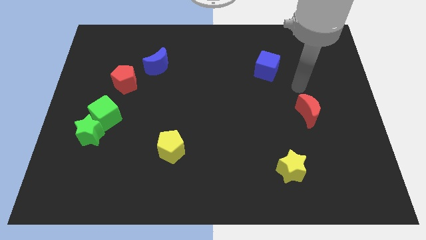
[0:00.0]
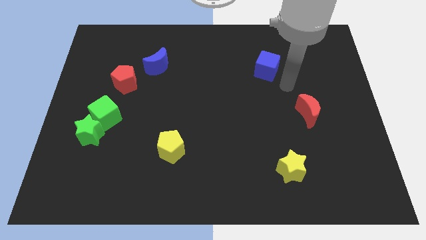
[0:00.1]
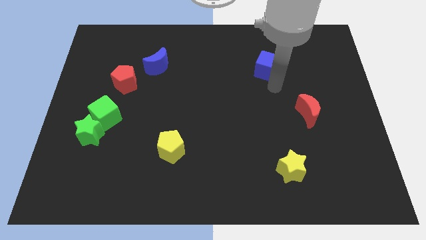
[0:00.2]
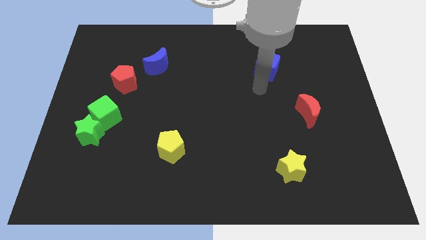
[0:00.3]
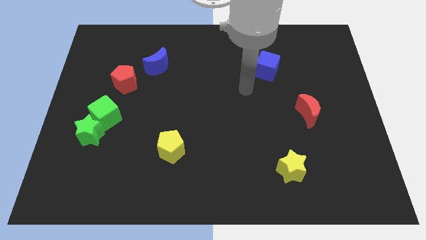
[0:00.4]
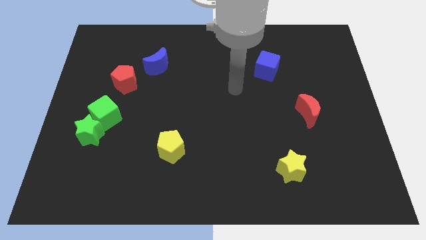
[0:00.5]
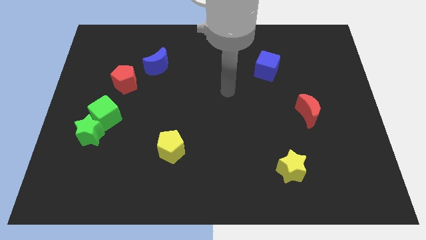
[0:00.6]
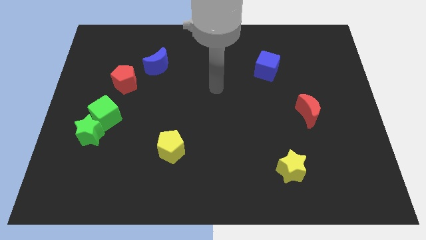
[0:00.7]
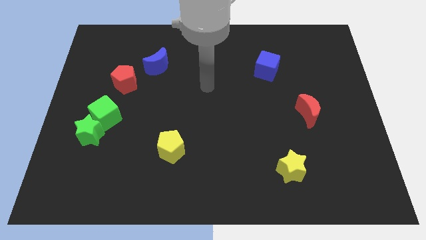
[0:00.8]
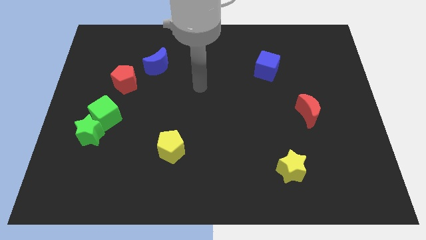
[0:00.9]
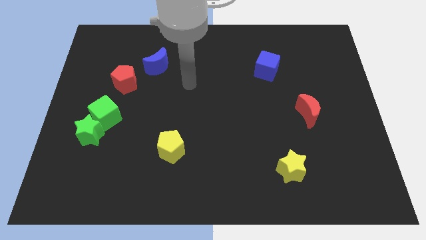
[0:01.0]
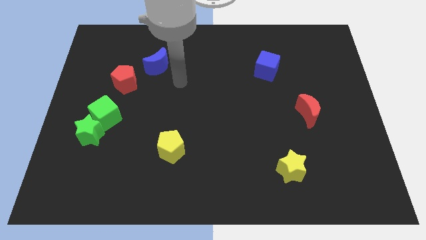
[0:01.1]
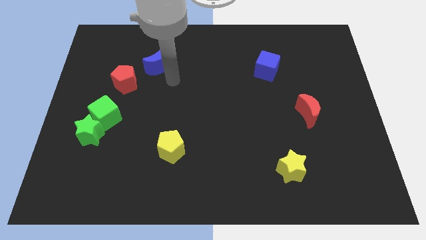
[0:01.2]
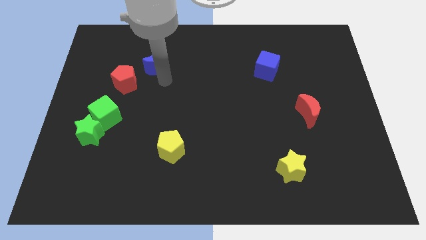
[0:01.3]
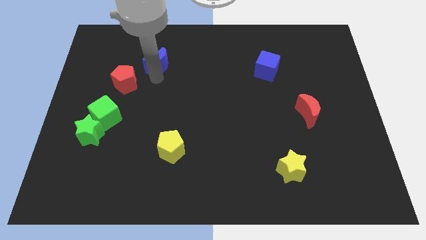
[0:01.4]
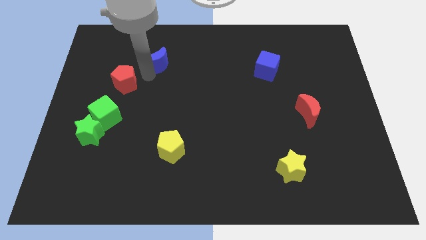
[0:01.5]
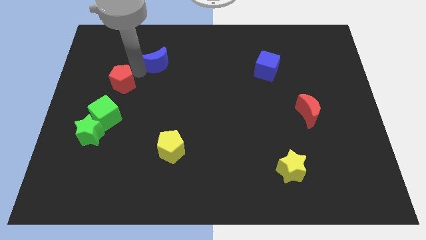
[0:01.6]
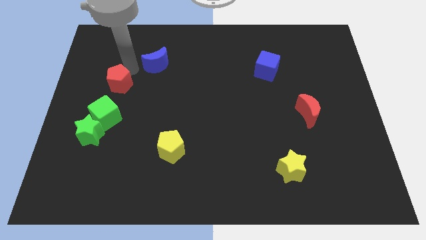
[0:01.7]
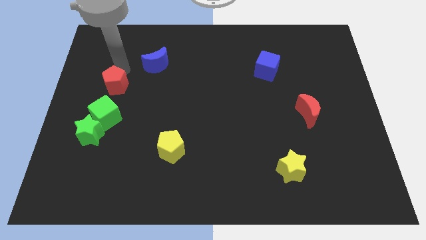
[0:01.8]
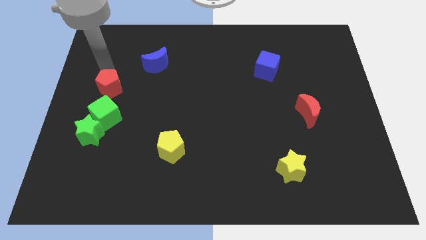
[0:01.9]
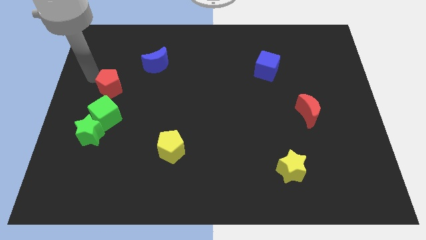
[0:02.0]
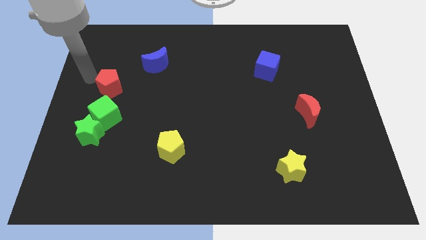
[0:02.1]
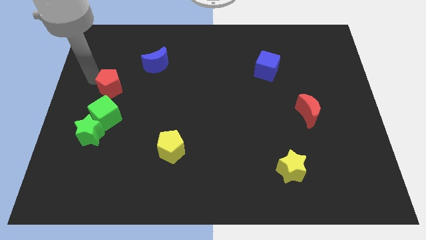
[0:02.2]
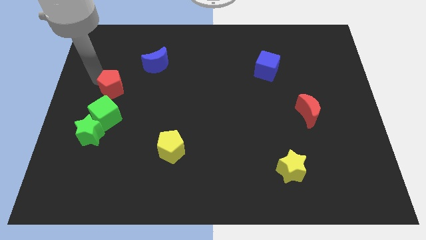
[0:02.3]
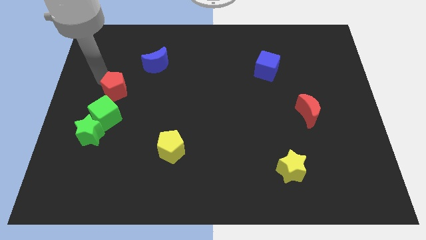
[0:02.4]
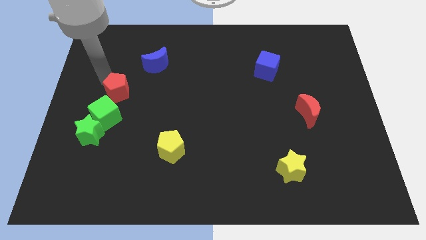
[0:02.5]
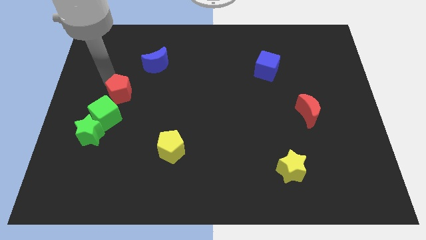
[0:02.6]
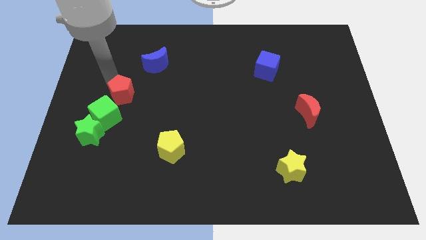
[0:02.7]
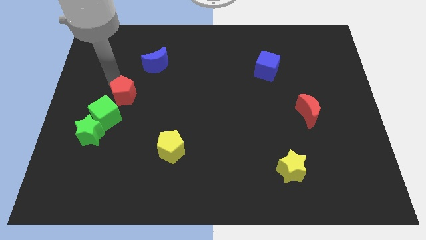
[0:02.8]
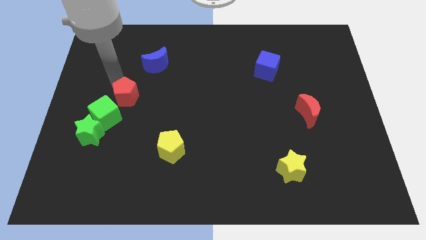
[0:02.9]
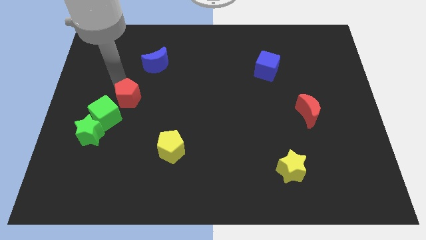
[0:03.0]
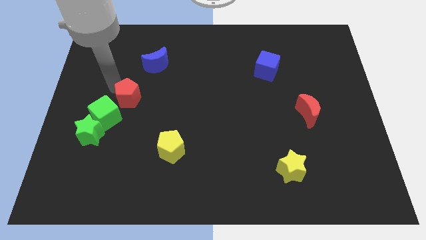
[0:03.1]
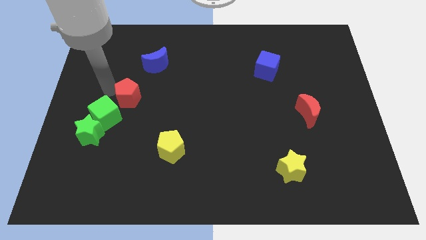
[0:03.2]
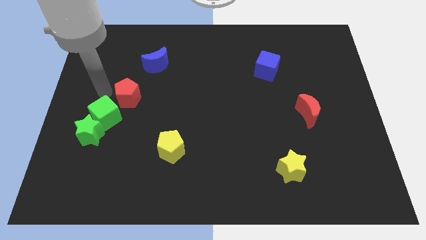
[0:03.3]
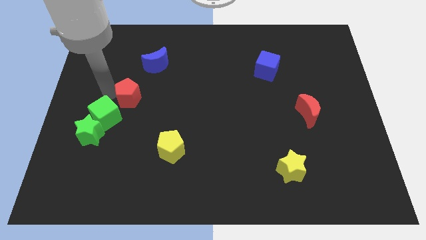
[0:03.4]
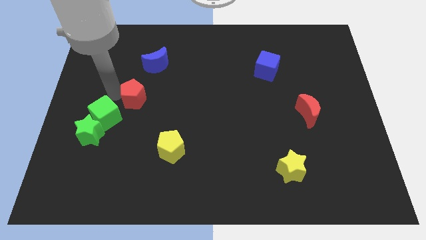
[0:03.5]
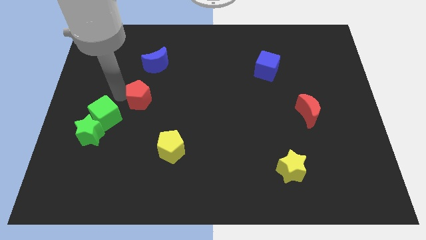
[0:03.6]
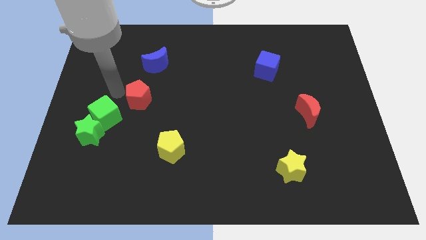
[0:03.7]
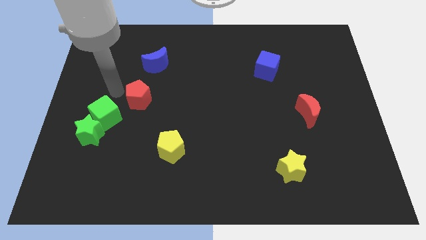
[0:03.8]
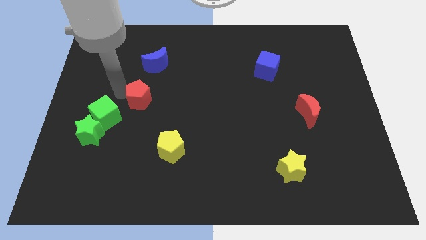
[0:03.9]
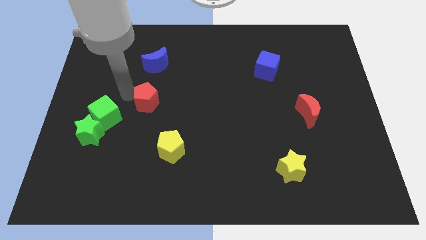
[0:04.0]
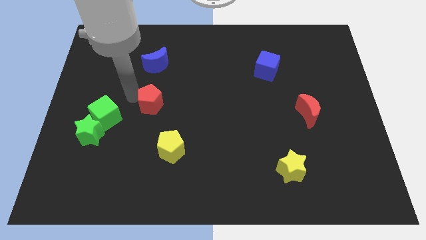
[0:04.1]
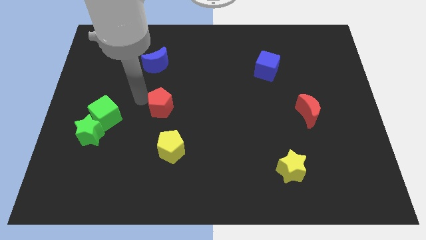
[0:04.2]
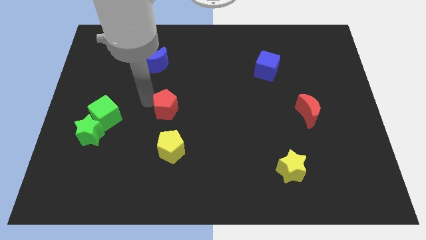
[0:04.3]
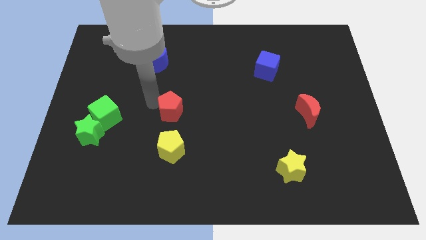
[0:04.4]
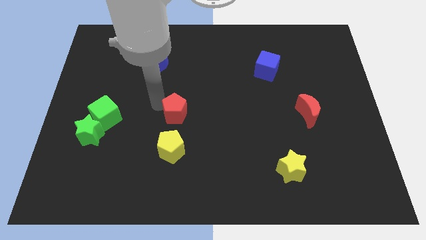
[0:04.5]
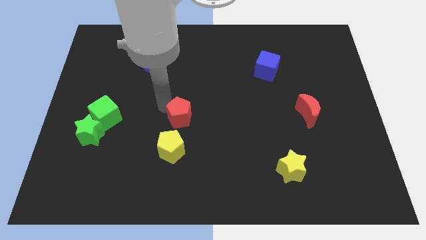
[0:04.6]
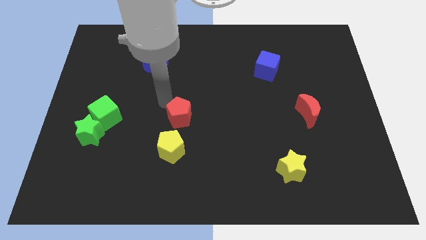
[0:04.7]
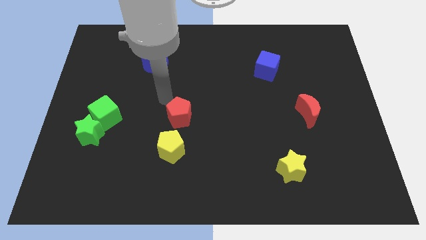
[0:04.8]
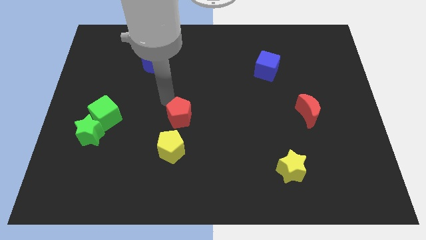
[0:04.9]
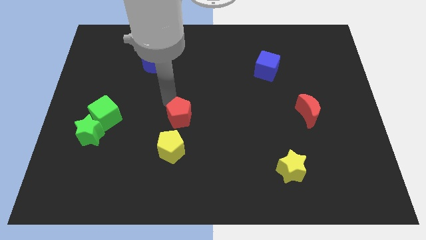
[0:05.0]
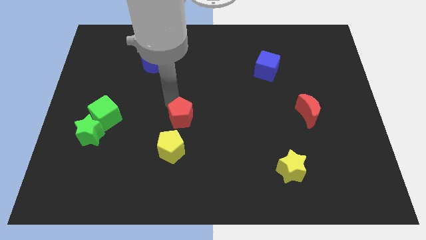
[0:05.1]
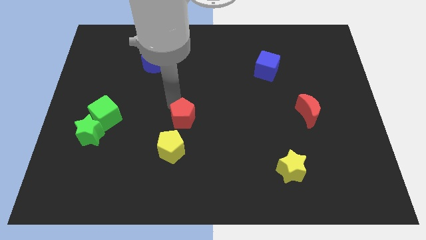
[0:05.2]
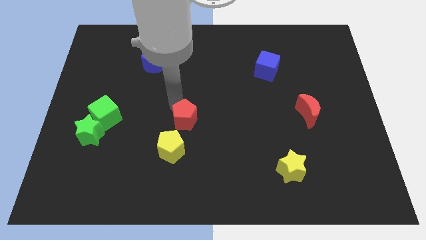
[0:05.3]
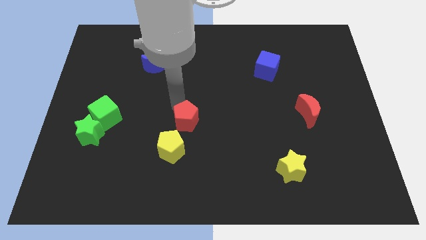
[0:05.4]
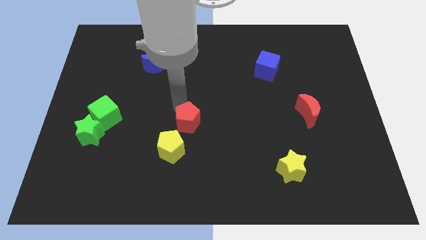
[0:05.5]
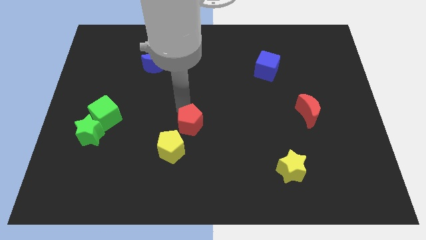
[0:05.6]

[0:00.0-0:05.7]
push the red pentagon diagonally downwards and to the right

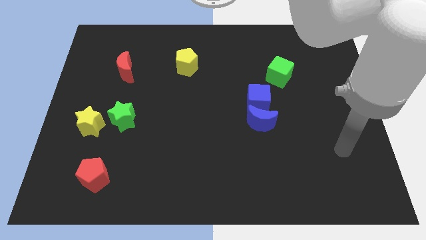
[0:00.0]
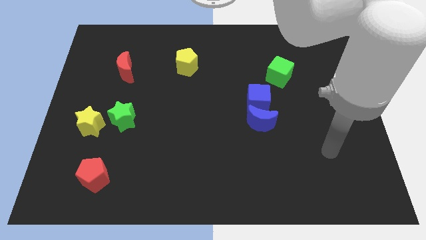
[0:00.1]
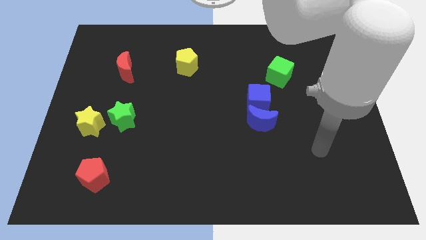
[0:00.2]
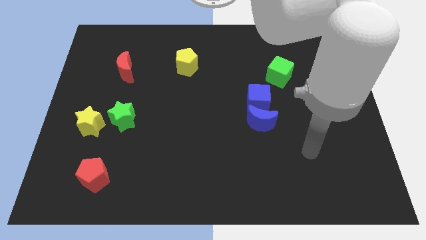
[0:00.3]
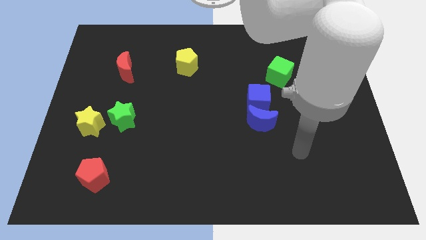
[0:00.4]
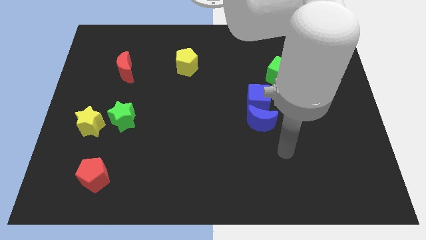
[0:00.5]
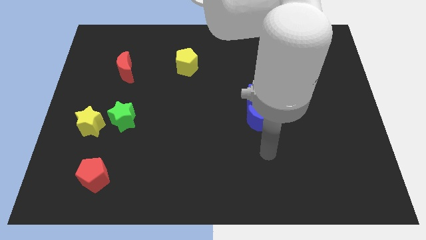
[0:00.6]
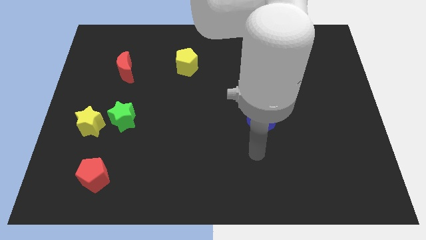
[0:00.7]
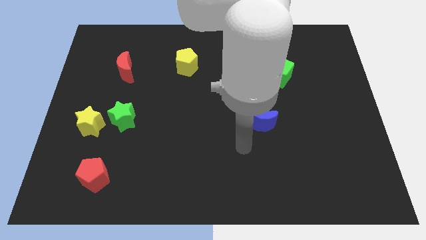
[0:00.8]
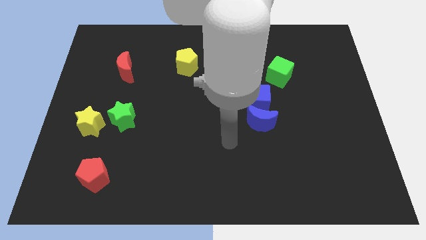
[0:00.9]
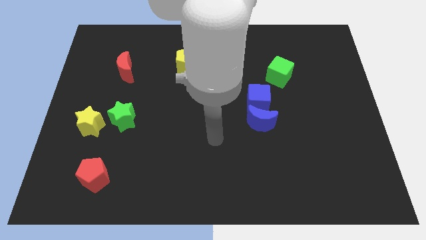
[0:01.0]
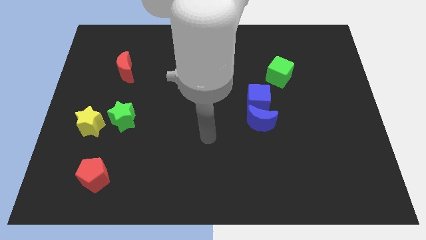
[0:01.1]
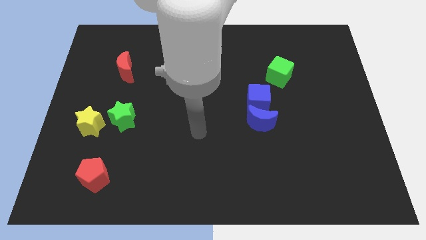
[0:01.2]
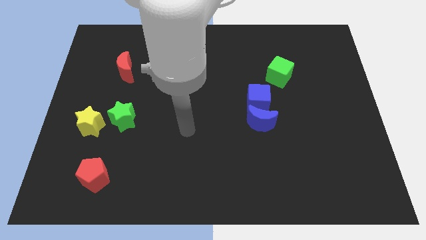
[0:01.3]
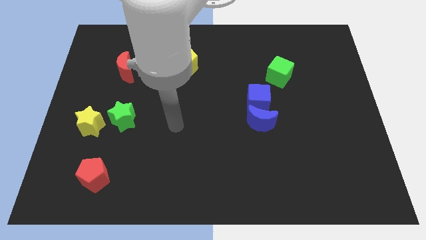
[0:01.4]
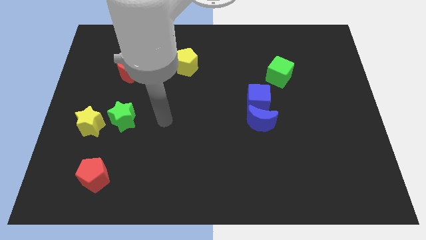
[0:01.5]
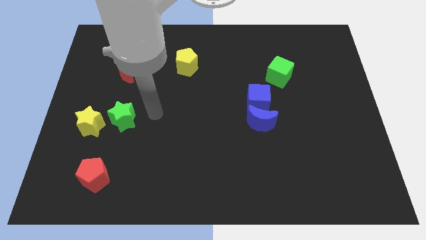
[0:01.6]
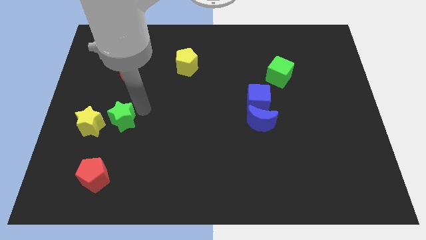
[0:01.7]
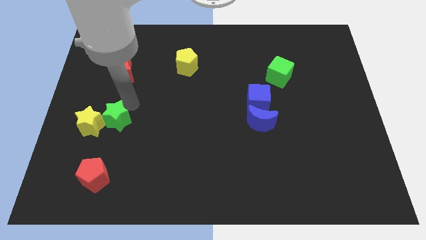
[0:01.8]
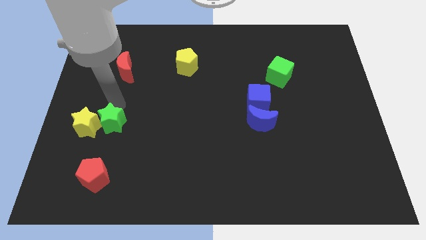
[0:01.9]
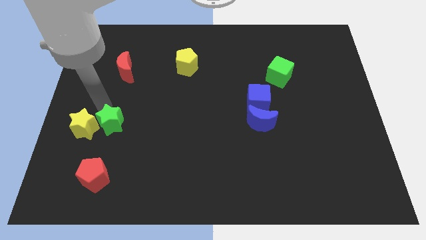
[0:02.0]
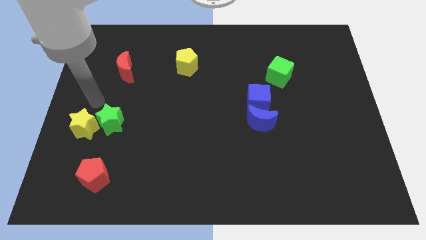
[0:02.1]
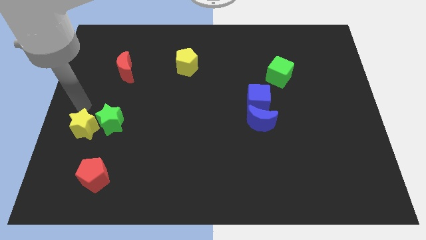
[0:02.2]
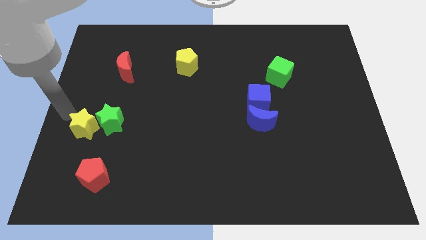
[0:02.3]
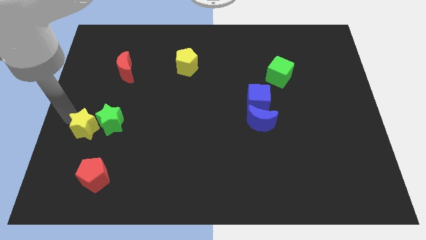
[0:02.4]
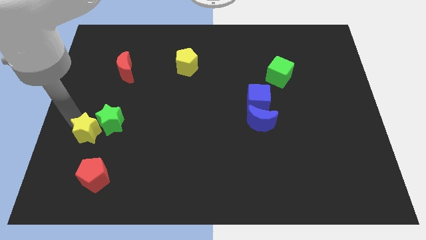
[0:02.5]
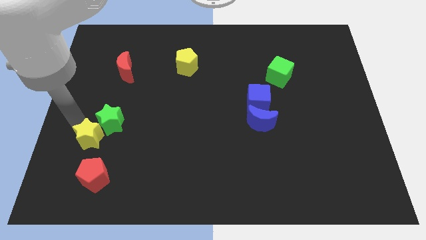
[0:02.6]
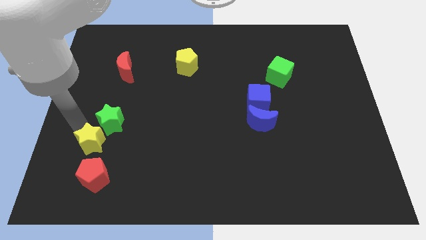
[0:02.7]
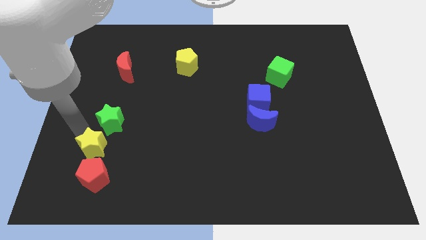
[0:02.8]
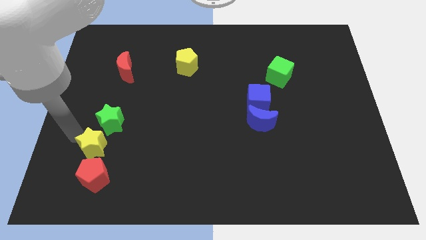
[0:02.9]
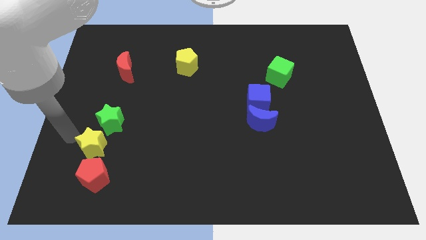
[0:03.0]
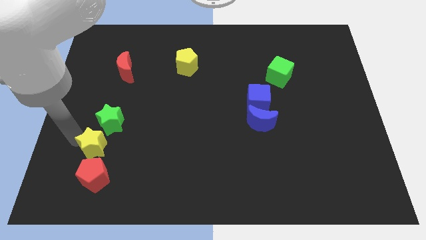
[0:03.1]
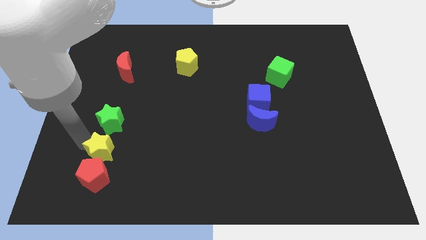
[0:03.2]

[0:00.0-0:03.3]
slightly move the yellow star downwards and right
